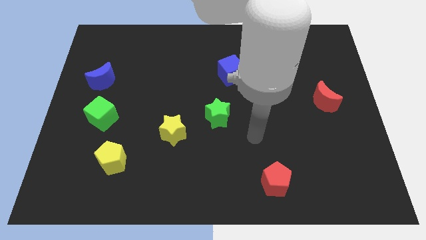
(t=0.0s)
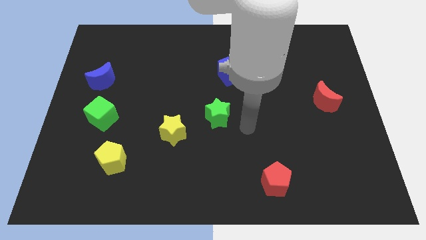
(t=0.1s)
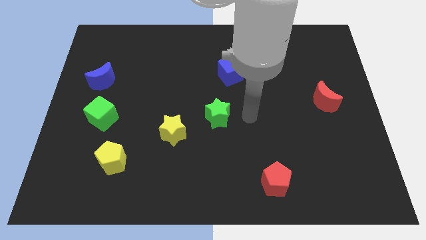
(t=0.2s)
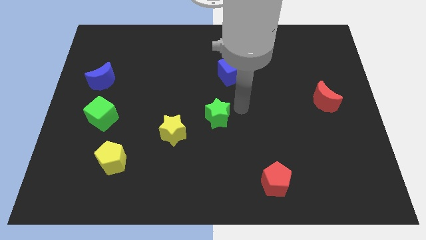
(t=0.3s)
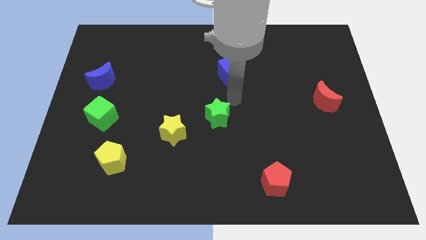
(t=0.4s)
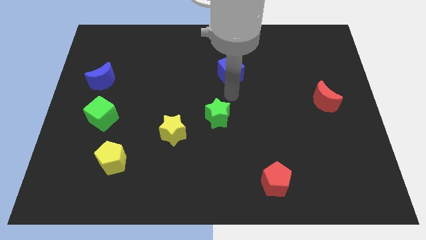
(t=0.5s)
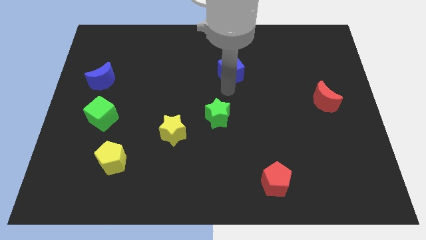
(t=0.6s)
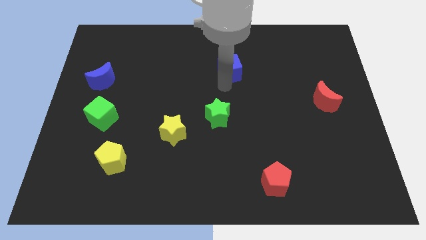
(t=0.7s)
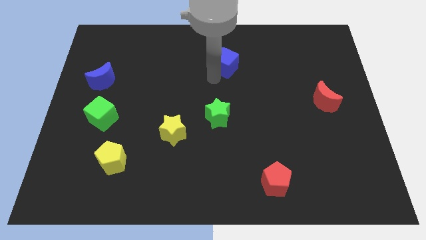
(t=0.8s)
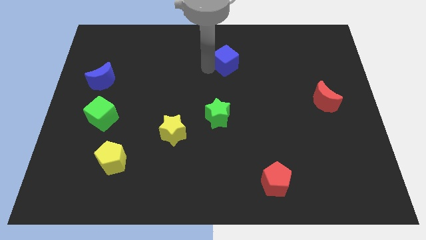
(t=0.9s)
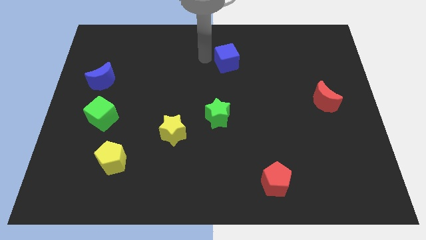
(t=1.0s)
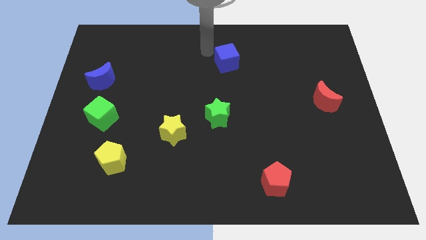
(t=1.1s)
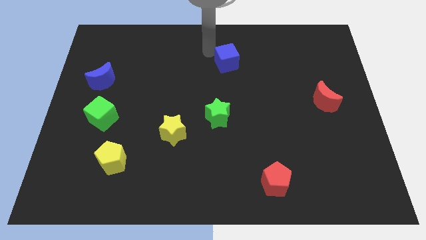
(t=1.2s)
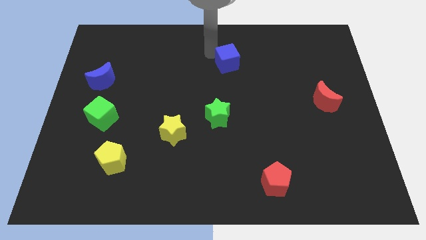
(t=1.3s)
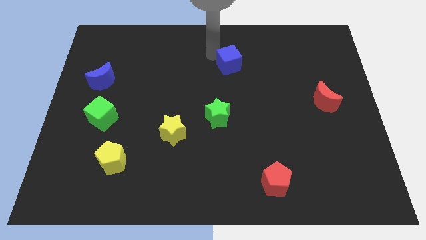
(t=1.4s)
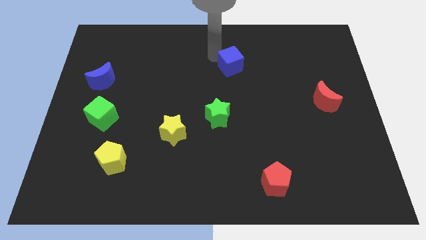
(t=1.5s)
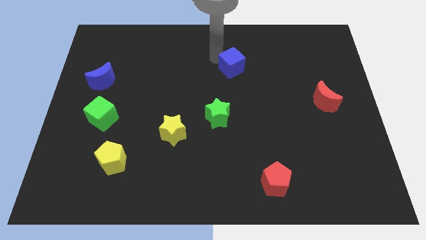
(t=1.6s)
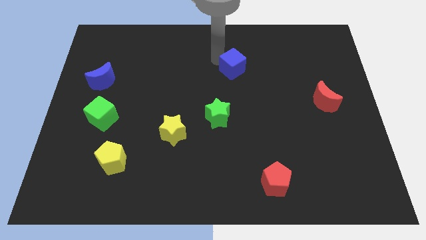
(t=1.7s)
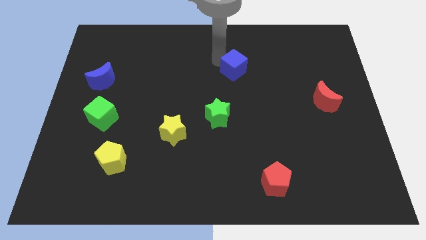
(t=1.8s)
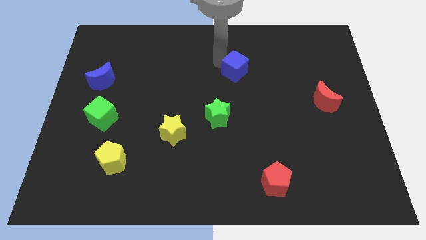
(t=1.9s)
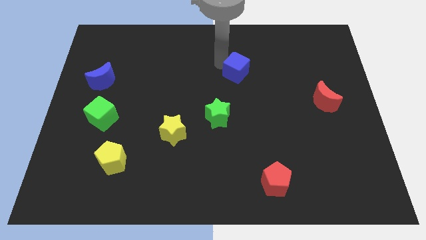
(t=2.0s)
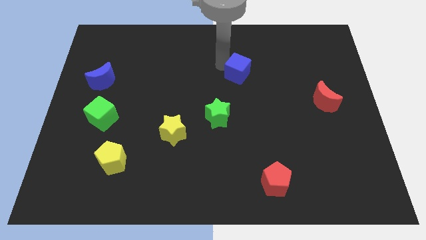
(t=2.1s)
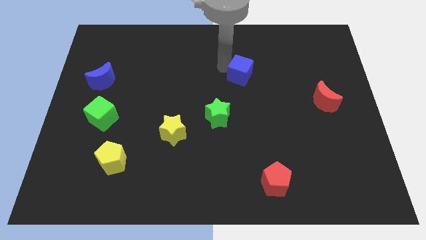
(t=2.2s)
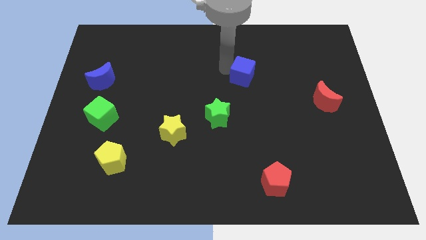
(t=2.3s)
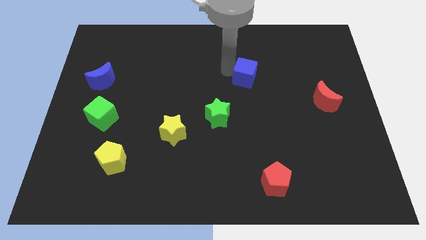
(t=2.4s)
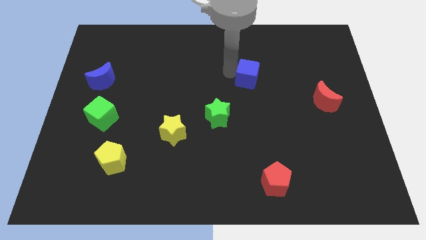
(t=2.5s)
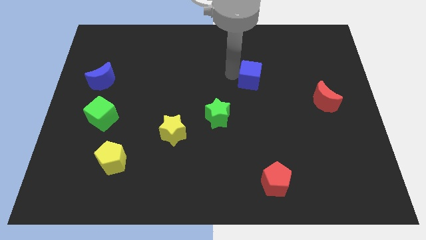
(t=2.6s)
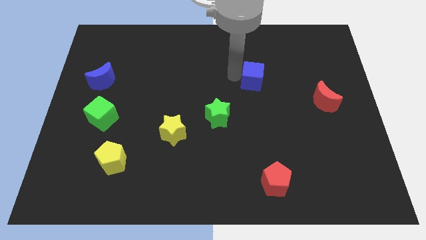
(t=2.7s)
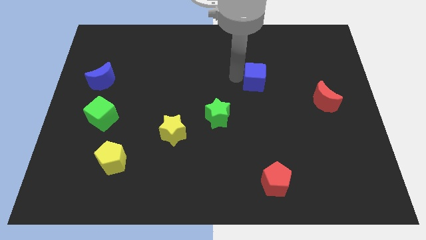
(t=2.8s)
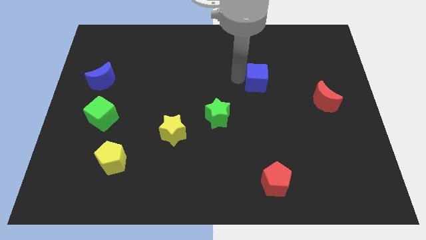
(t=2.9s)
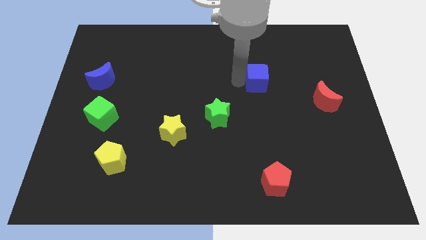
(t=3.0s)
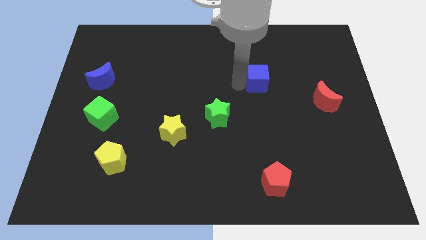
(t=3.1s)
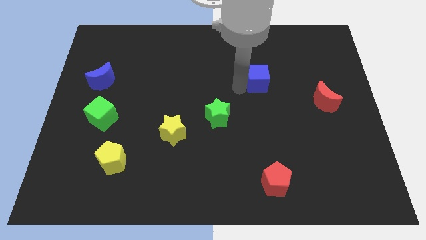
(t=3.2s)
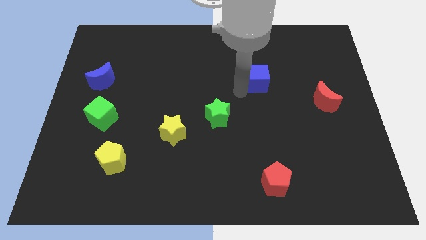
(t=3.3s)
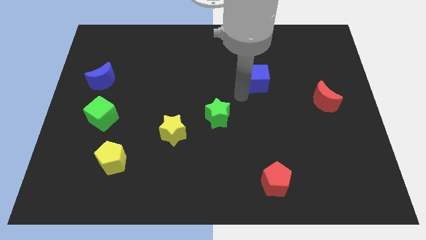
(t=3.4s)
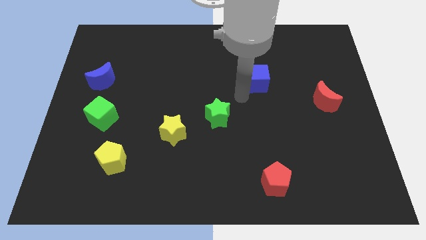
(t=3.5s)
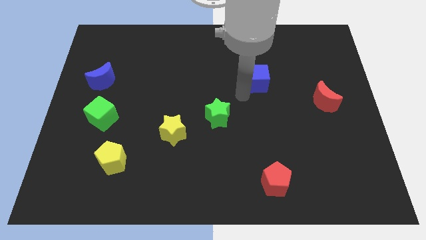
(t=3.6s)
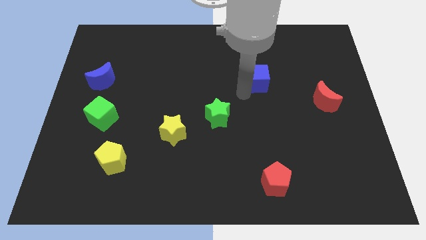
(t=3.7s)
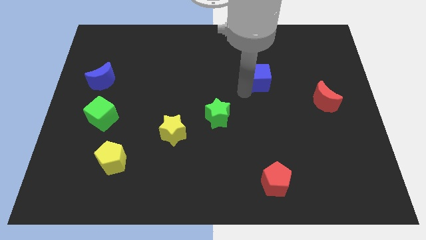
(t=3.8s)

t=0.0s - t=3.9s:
slightly move the blue cube to the right

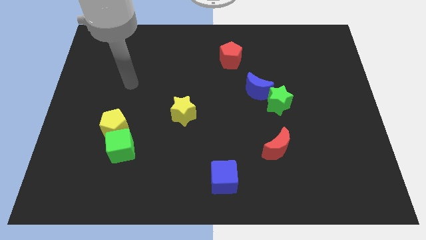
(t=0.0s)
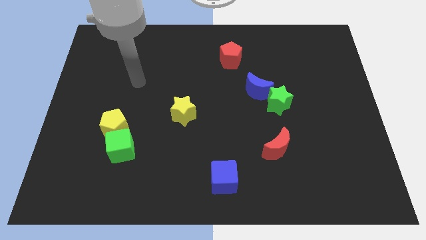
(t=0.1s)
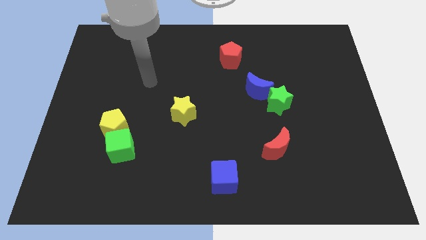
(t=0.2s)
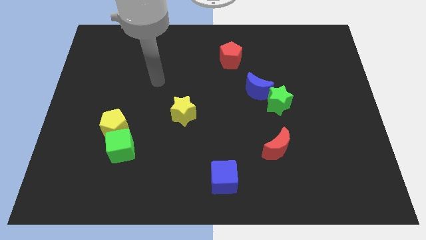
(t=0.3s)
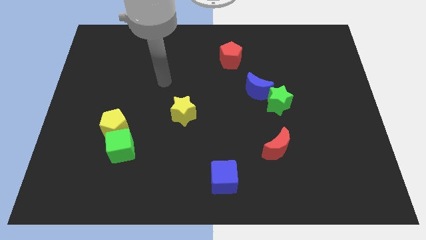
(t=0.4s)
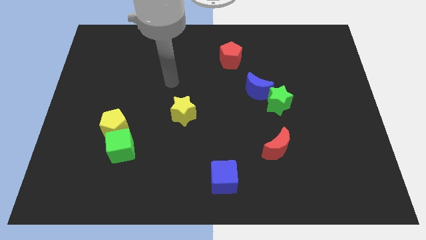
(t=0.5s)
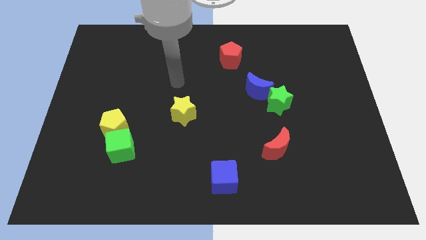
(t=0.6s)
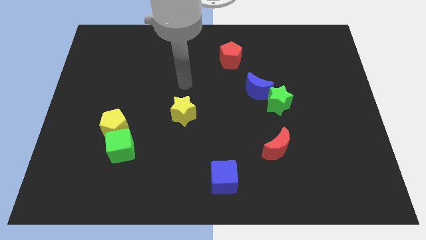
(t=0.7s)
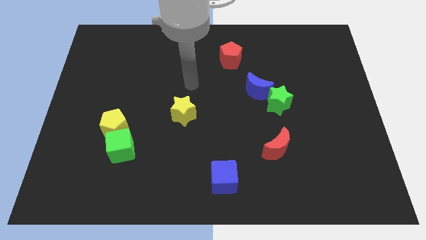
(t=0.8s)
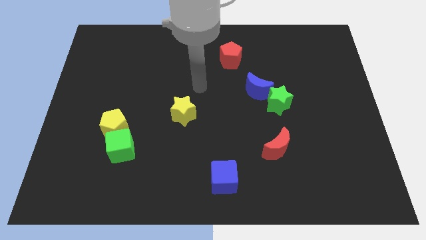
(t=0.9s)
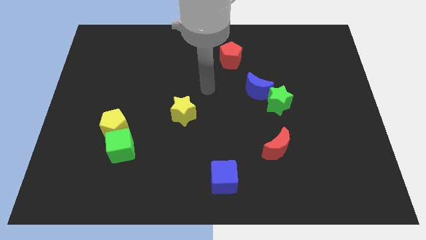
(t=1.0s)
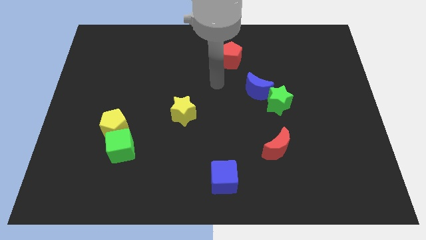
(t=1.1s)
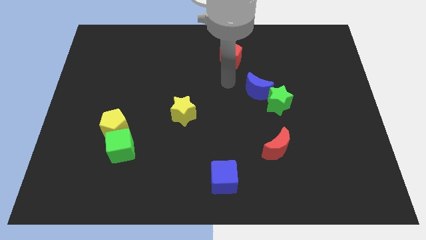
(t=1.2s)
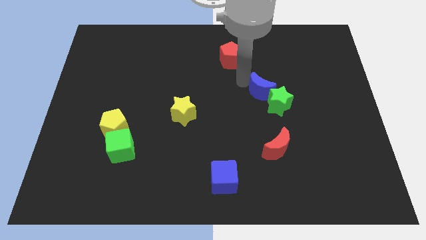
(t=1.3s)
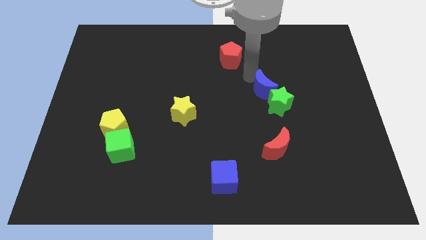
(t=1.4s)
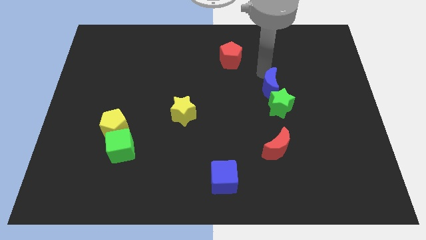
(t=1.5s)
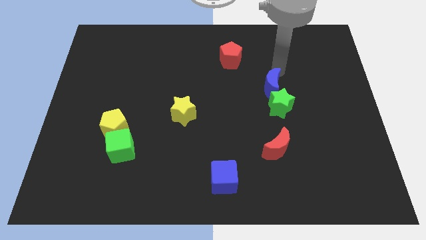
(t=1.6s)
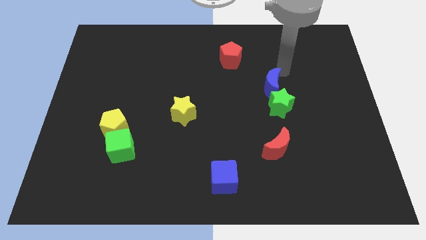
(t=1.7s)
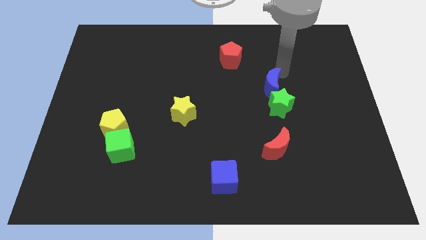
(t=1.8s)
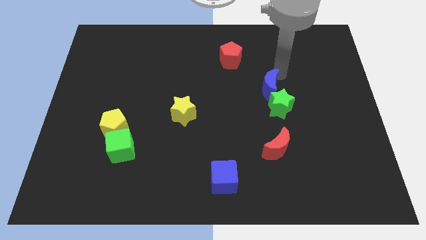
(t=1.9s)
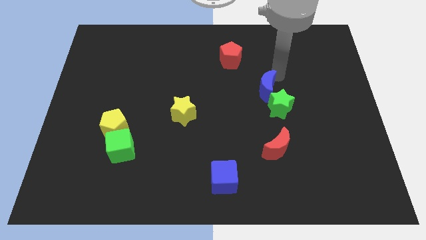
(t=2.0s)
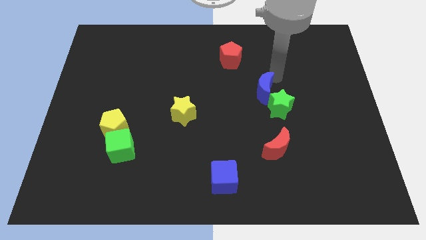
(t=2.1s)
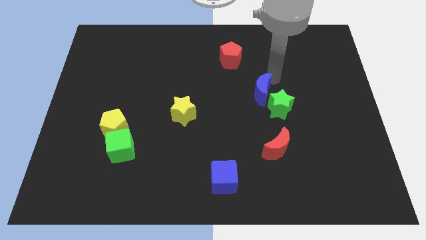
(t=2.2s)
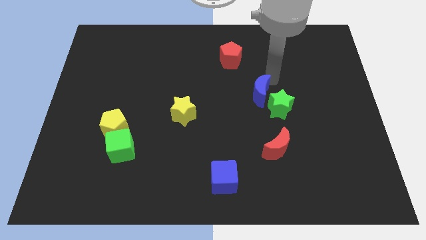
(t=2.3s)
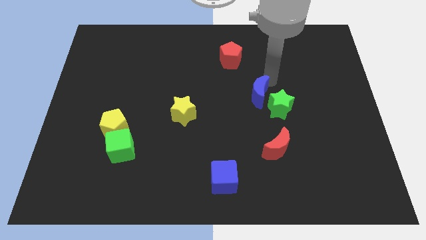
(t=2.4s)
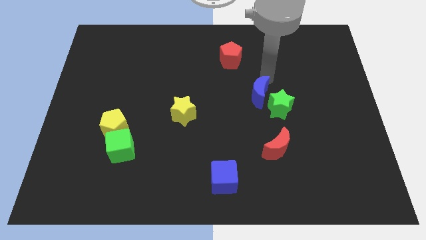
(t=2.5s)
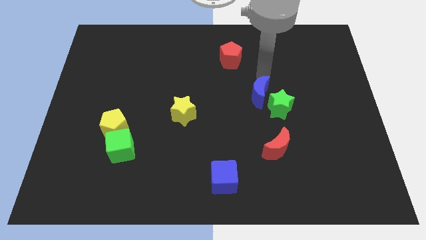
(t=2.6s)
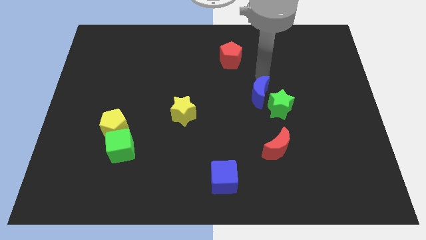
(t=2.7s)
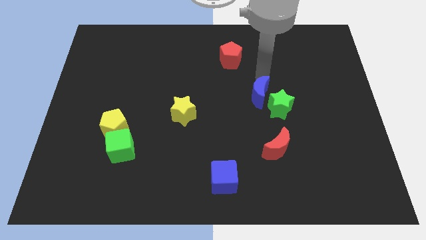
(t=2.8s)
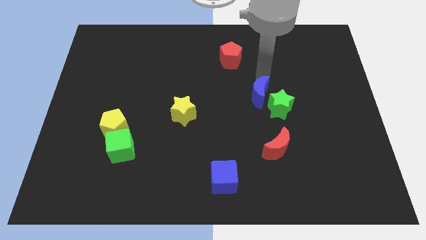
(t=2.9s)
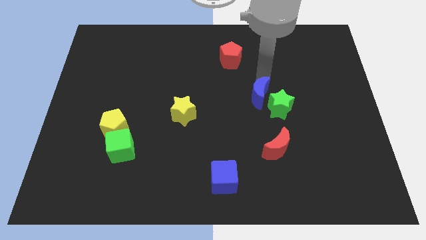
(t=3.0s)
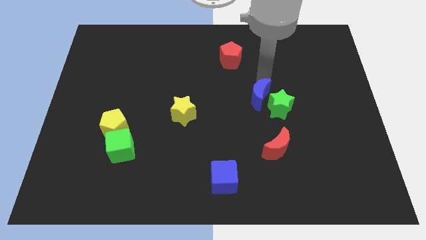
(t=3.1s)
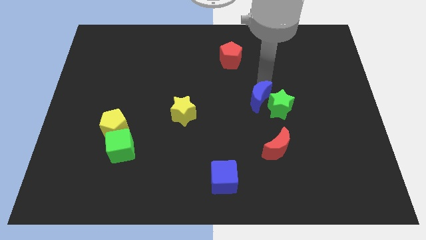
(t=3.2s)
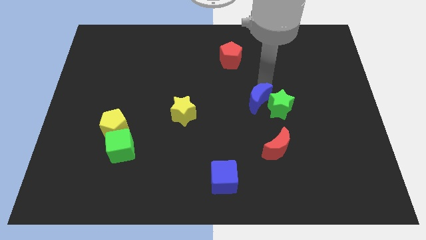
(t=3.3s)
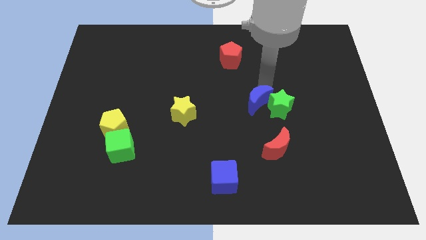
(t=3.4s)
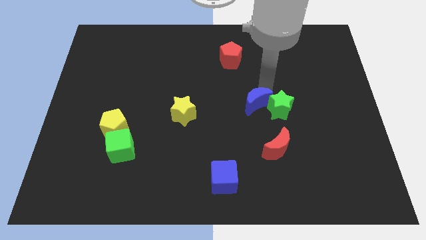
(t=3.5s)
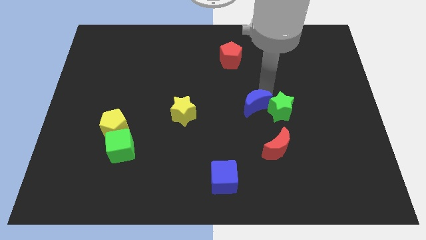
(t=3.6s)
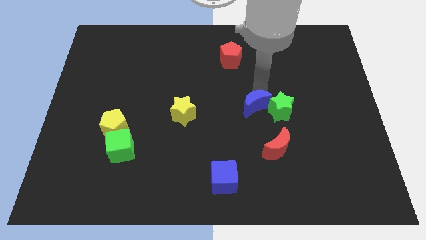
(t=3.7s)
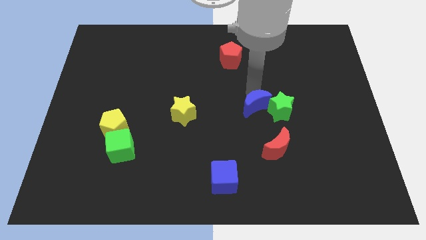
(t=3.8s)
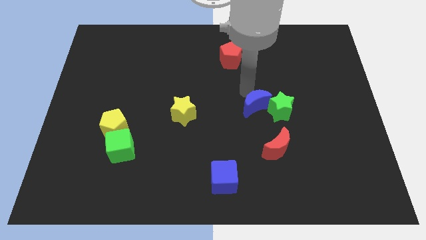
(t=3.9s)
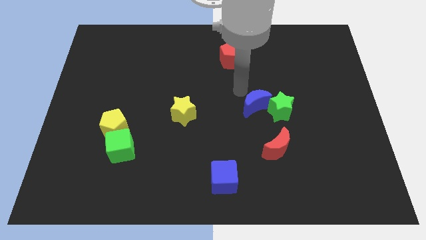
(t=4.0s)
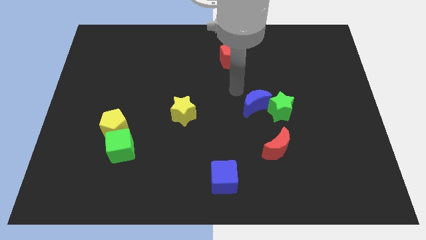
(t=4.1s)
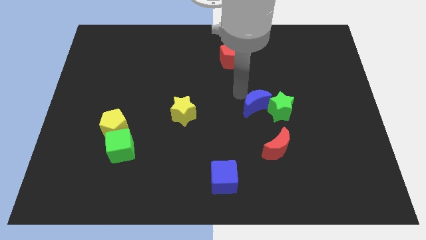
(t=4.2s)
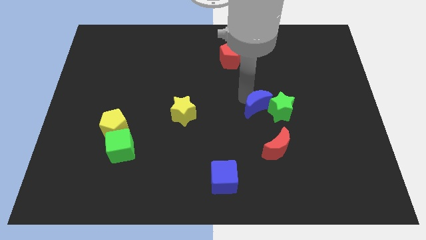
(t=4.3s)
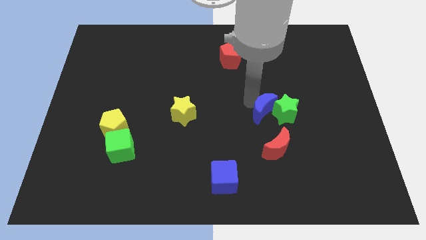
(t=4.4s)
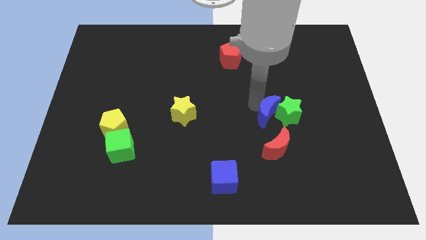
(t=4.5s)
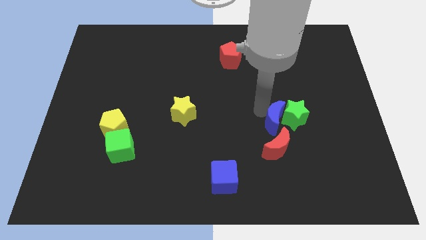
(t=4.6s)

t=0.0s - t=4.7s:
slightly push the blue moon down and right
